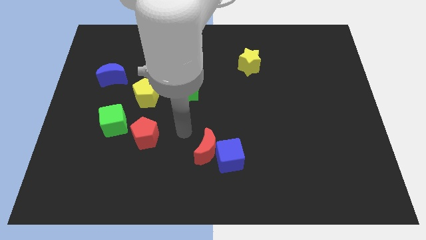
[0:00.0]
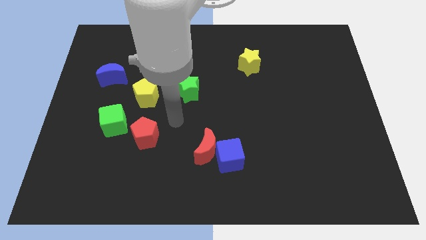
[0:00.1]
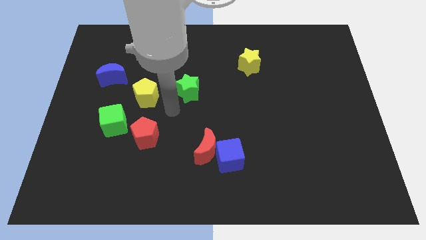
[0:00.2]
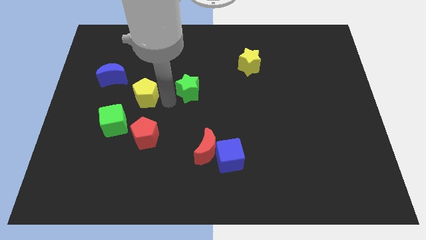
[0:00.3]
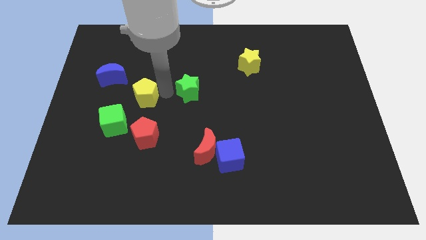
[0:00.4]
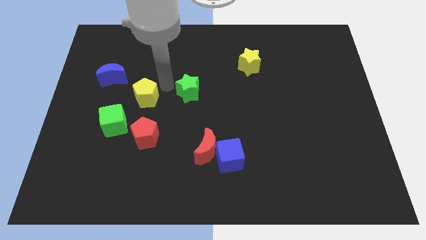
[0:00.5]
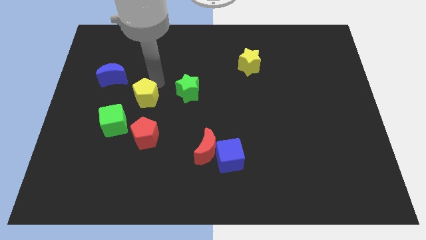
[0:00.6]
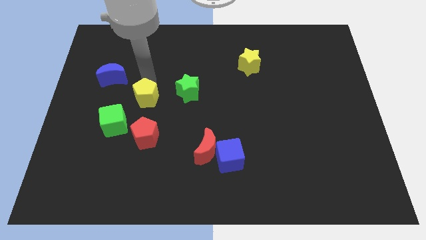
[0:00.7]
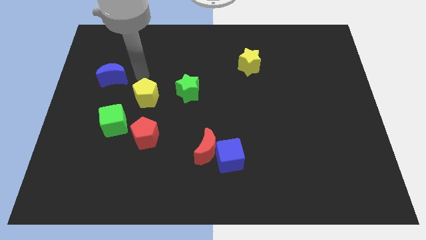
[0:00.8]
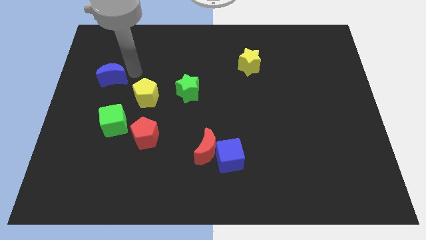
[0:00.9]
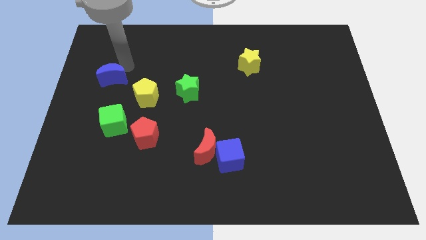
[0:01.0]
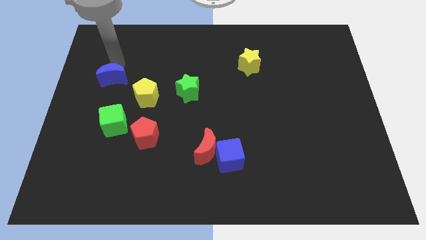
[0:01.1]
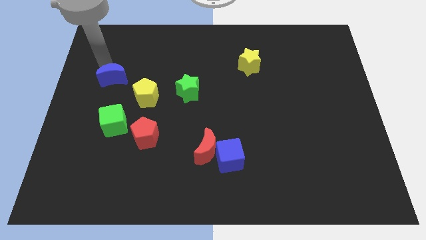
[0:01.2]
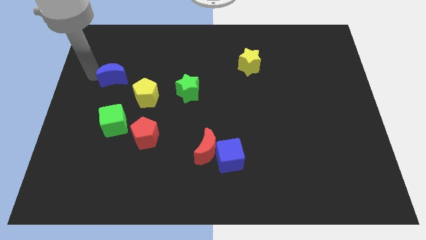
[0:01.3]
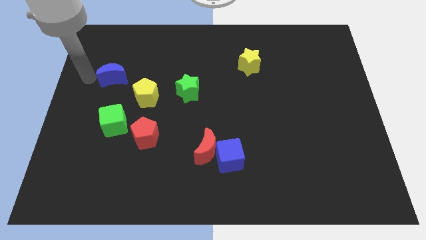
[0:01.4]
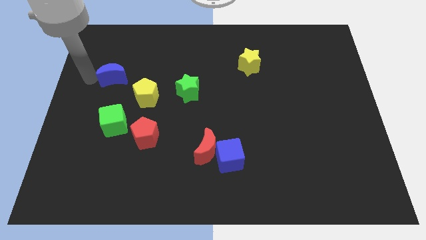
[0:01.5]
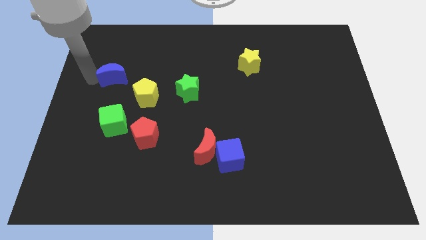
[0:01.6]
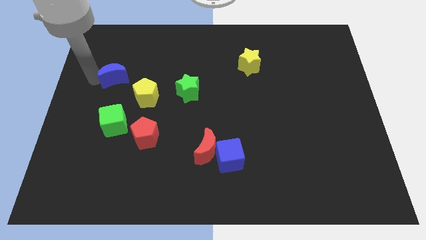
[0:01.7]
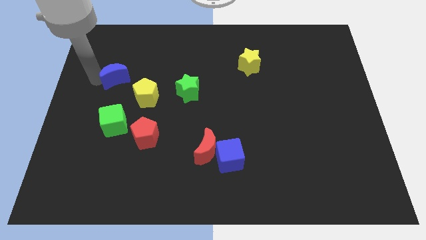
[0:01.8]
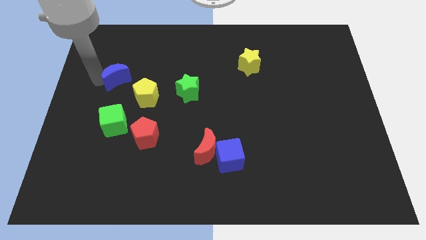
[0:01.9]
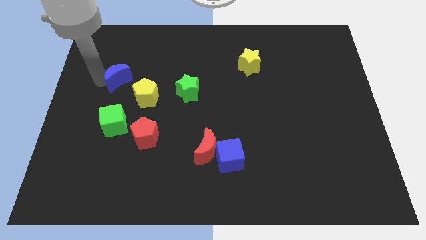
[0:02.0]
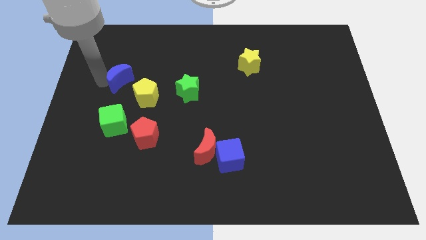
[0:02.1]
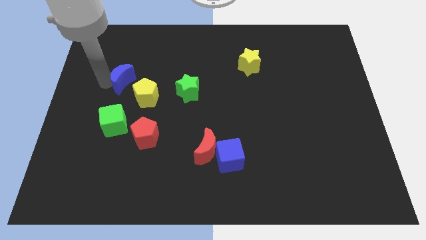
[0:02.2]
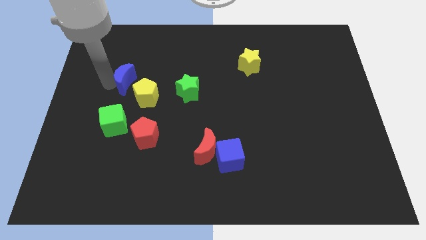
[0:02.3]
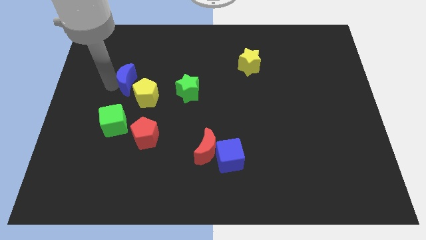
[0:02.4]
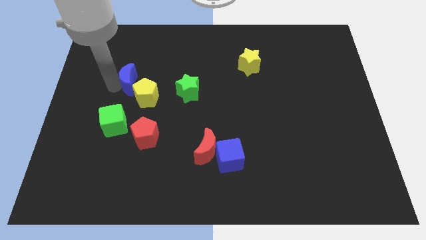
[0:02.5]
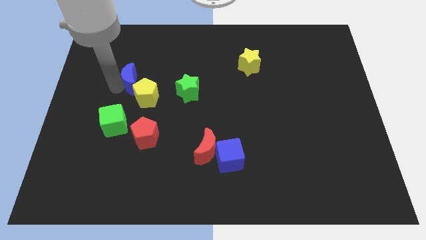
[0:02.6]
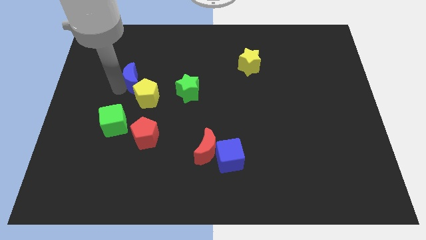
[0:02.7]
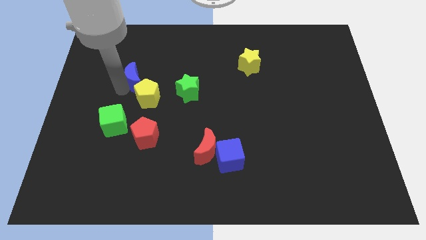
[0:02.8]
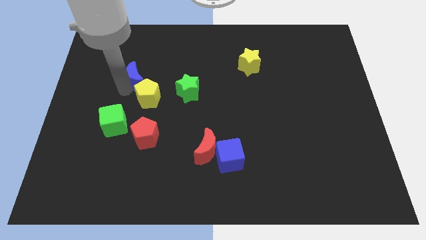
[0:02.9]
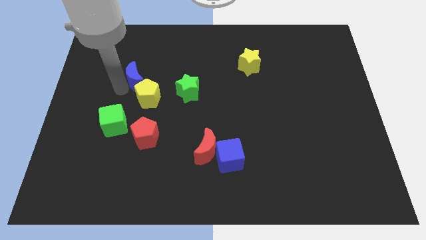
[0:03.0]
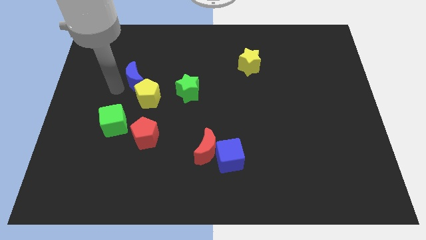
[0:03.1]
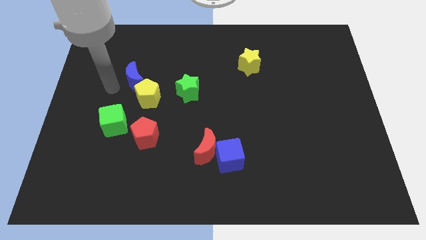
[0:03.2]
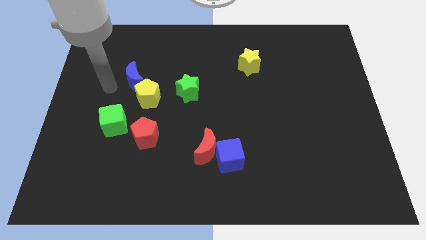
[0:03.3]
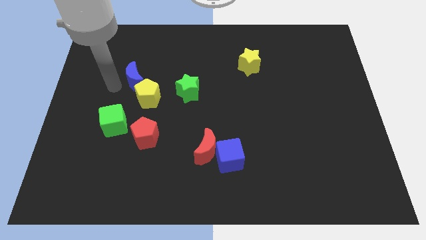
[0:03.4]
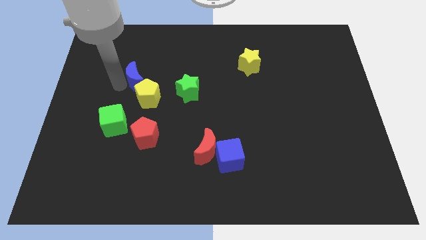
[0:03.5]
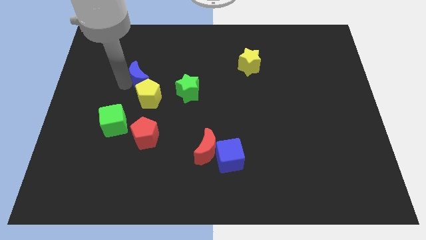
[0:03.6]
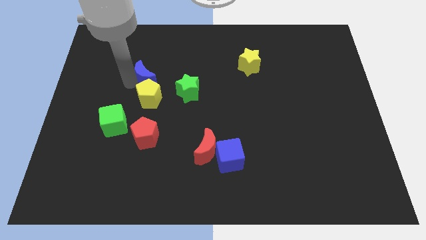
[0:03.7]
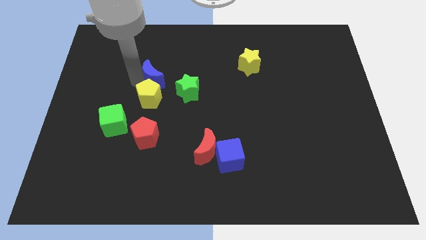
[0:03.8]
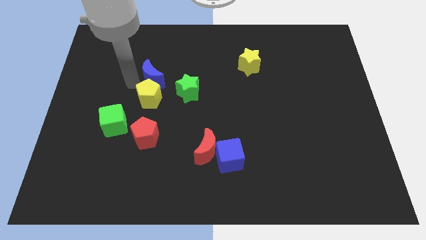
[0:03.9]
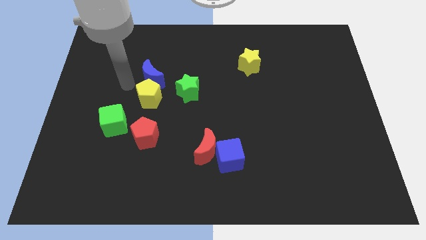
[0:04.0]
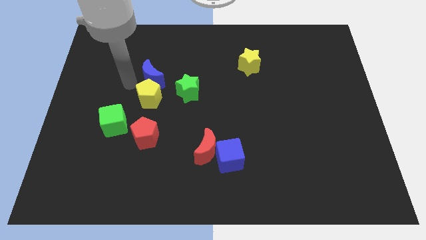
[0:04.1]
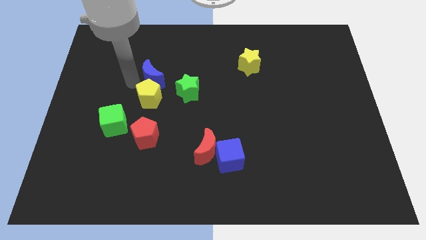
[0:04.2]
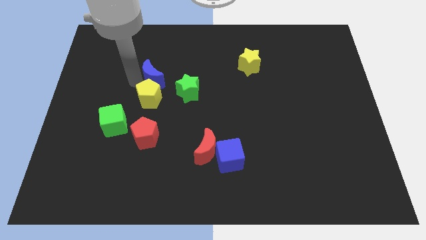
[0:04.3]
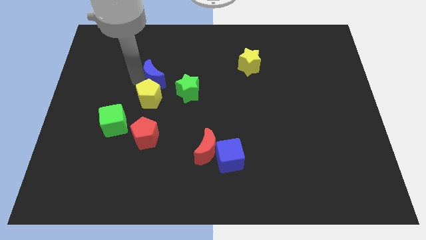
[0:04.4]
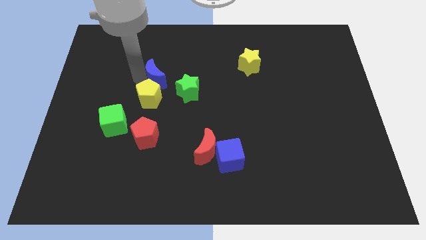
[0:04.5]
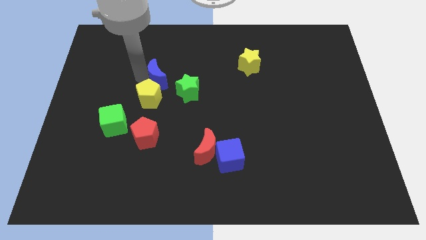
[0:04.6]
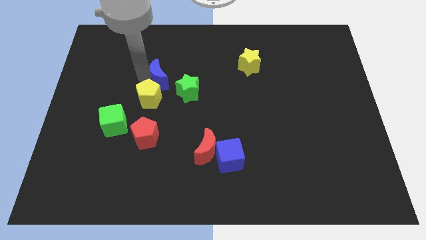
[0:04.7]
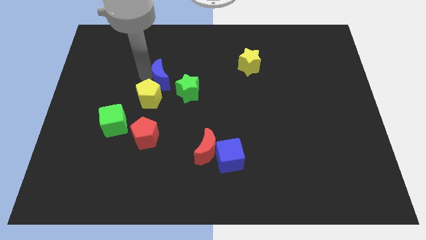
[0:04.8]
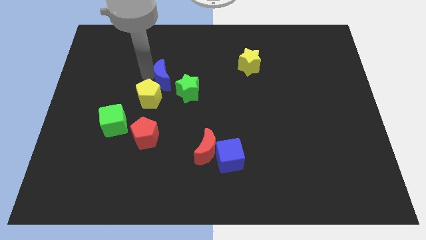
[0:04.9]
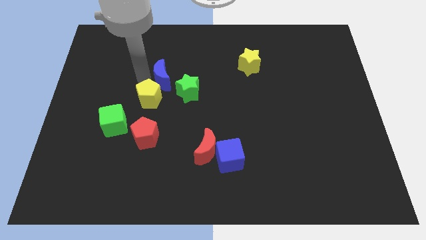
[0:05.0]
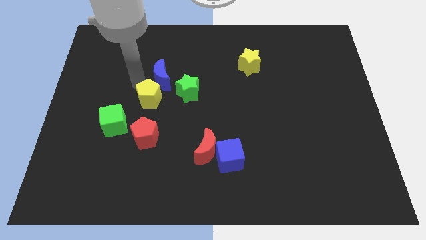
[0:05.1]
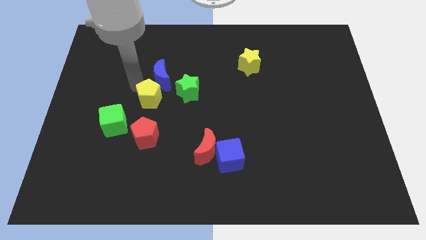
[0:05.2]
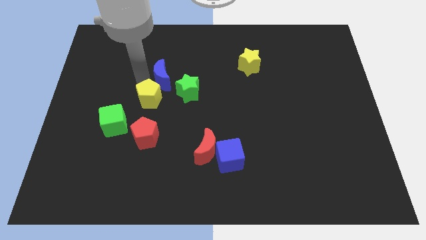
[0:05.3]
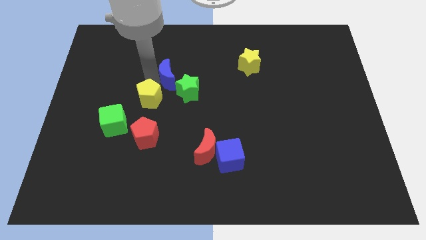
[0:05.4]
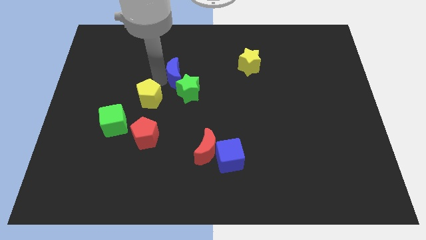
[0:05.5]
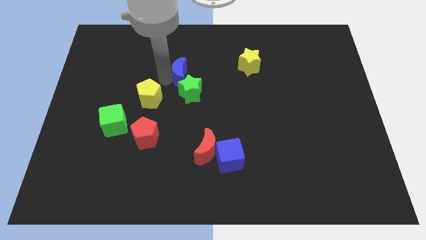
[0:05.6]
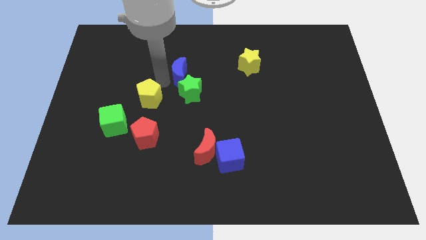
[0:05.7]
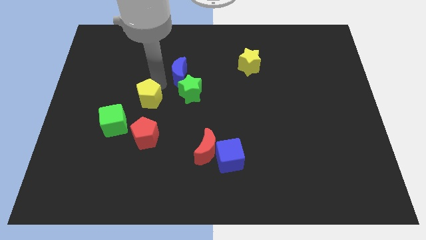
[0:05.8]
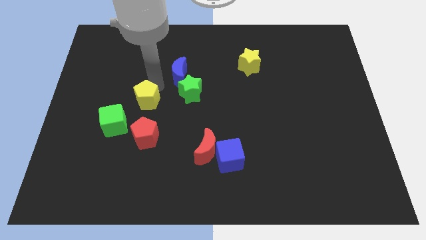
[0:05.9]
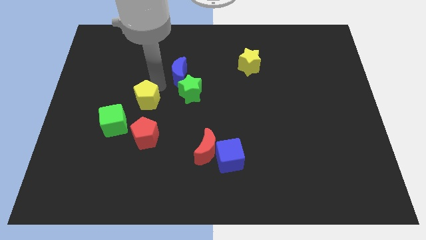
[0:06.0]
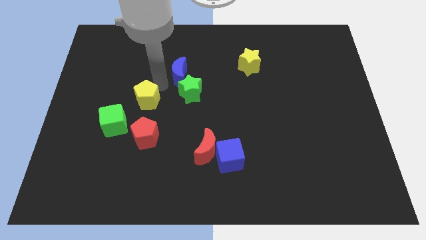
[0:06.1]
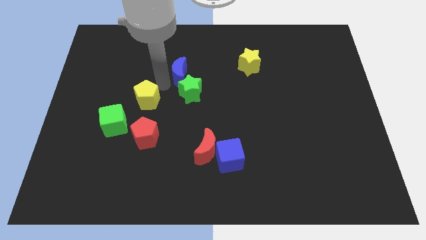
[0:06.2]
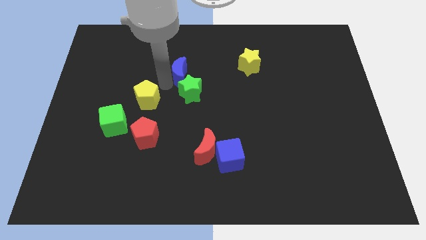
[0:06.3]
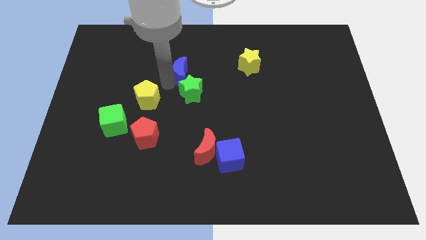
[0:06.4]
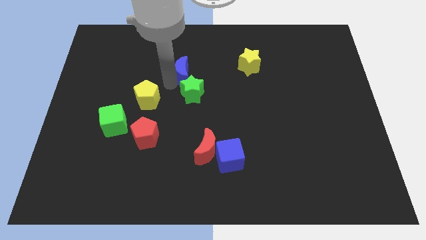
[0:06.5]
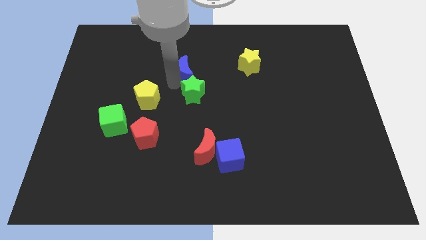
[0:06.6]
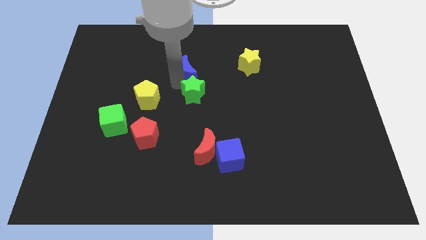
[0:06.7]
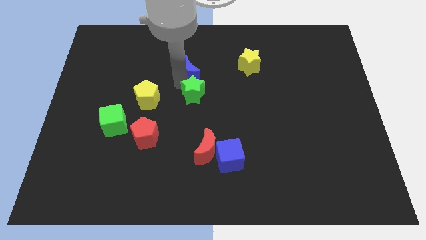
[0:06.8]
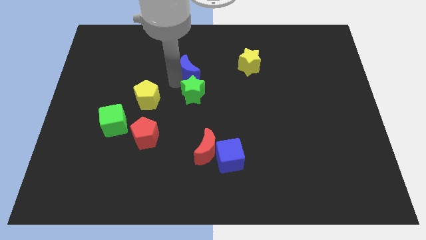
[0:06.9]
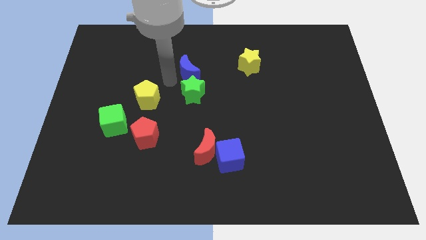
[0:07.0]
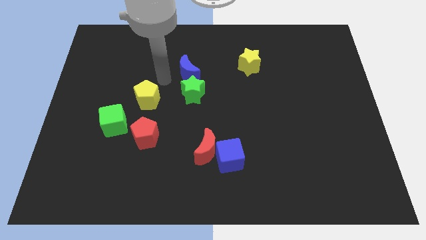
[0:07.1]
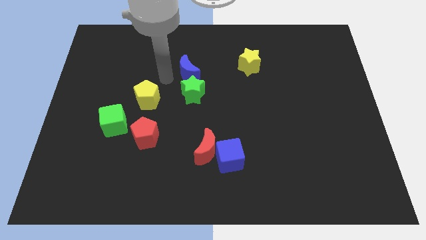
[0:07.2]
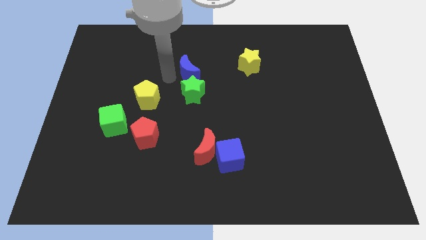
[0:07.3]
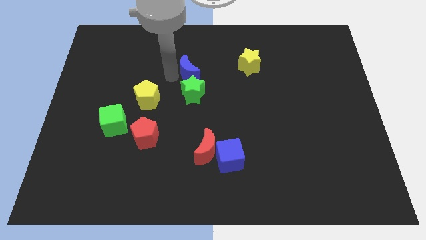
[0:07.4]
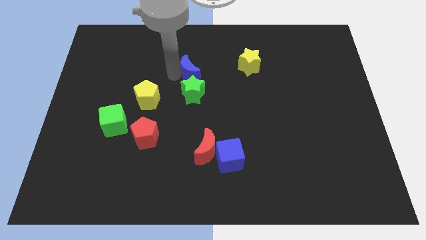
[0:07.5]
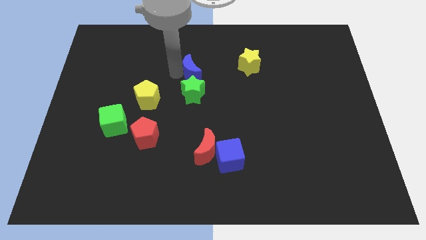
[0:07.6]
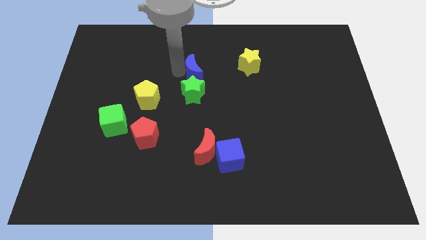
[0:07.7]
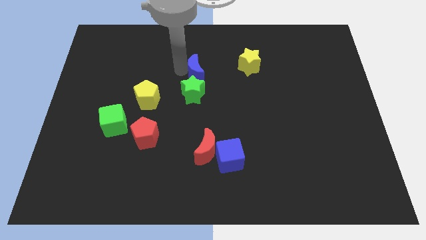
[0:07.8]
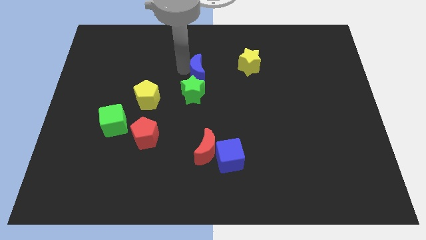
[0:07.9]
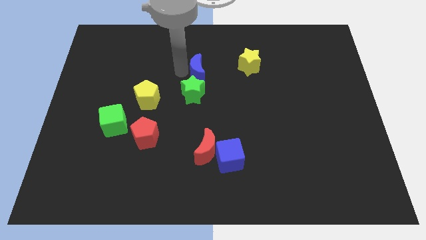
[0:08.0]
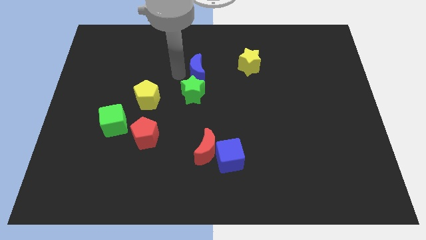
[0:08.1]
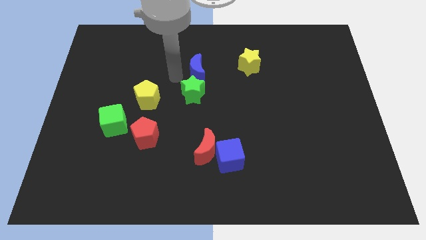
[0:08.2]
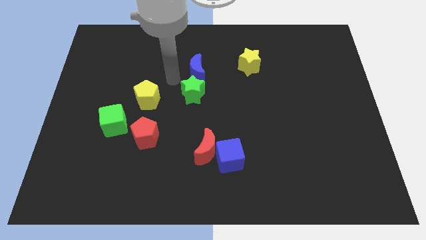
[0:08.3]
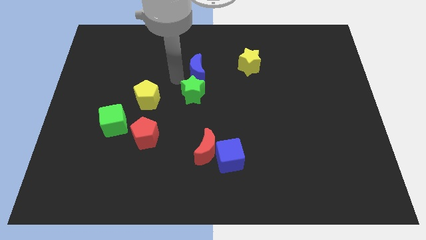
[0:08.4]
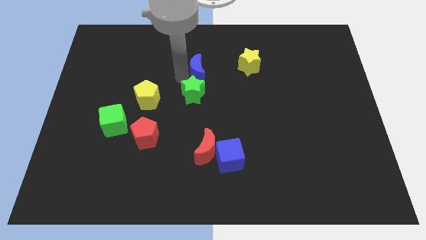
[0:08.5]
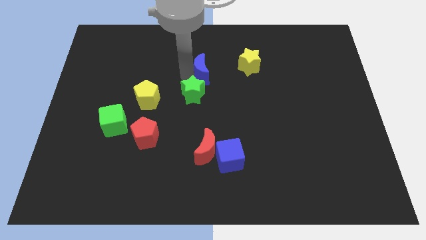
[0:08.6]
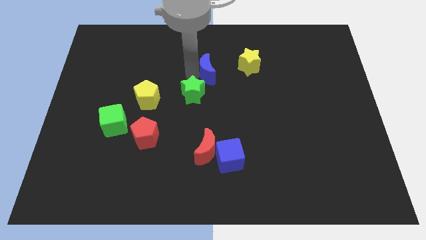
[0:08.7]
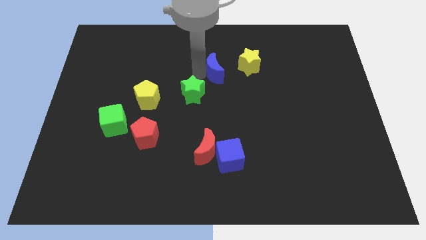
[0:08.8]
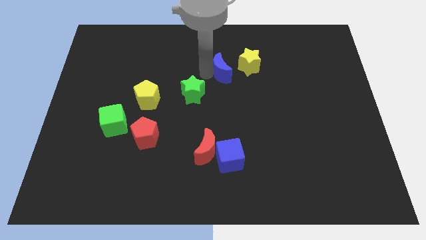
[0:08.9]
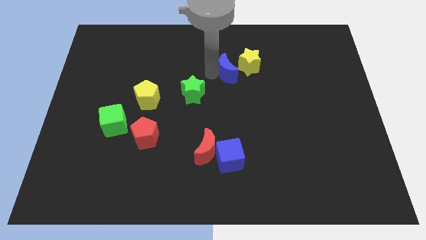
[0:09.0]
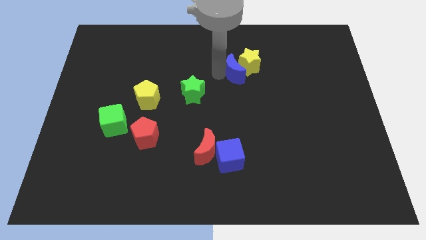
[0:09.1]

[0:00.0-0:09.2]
put the blue moon next to the yellow star
